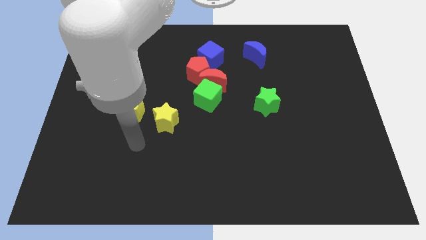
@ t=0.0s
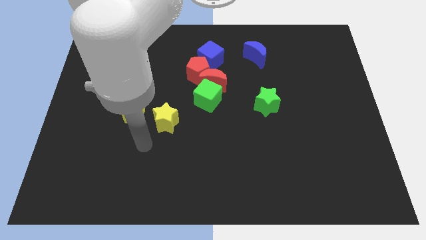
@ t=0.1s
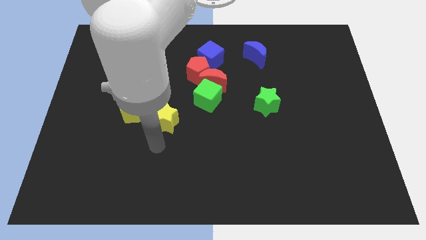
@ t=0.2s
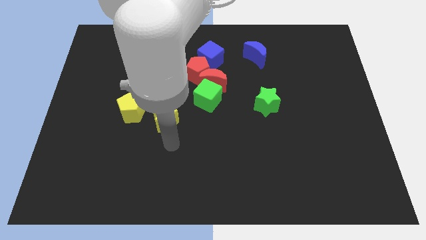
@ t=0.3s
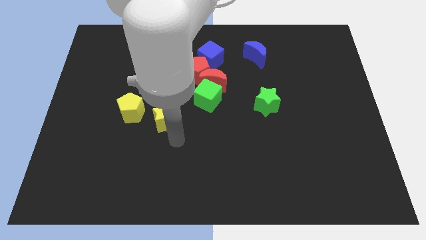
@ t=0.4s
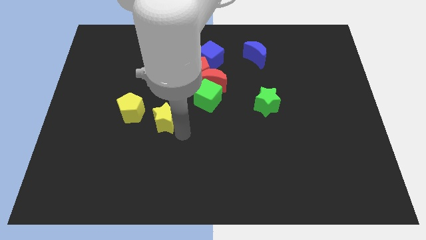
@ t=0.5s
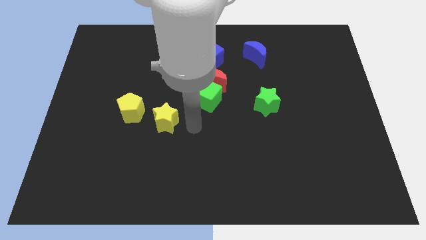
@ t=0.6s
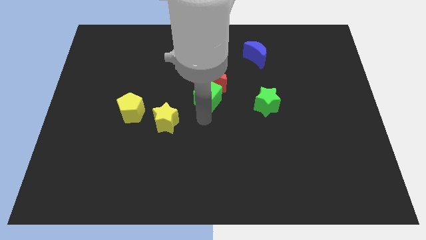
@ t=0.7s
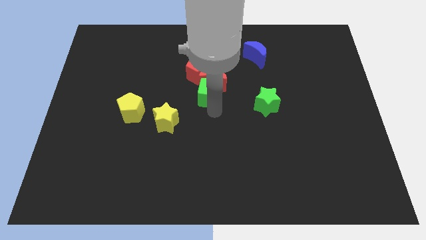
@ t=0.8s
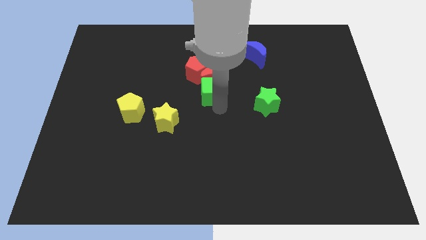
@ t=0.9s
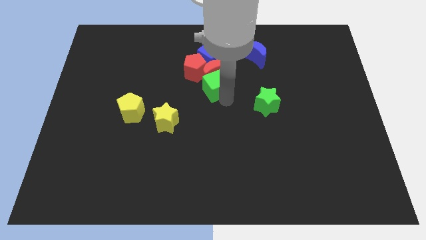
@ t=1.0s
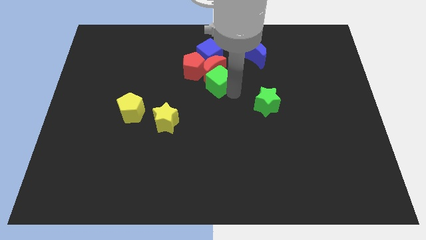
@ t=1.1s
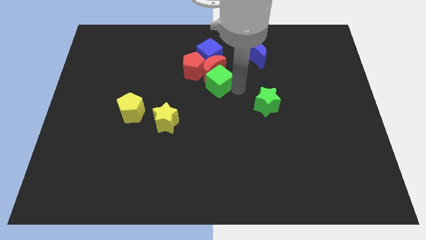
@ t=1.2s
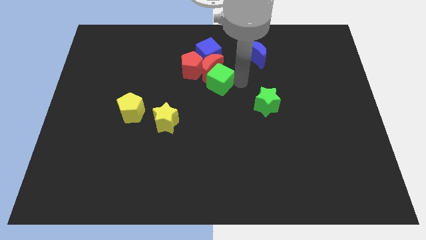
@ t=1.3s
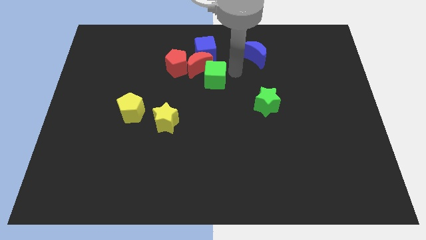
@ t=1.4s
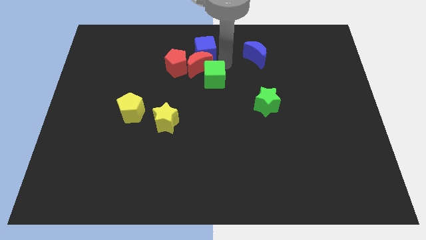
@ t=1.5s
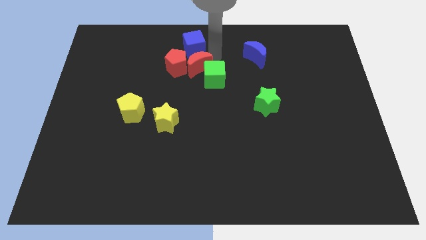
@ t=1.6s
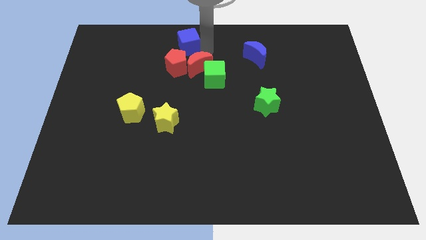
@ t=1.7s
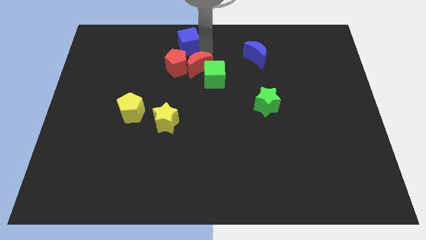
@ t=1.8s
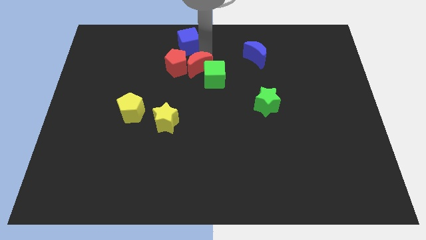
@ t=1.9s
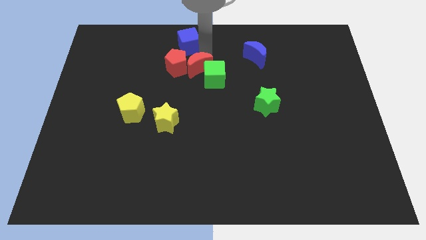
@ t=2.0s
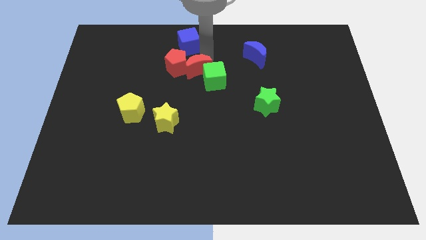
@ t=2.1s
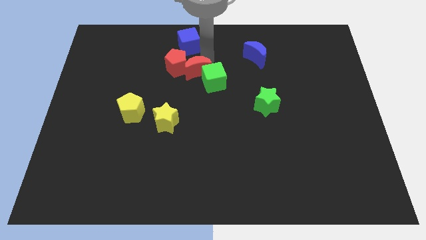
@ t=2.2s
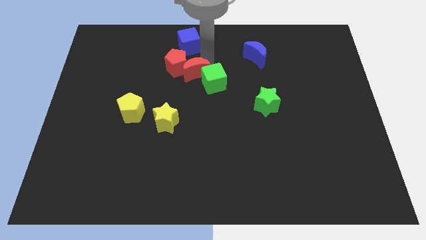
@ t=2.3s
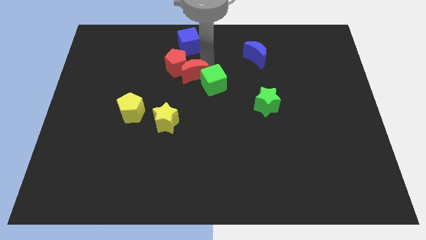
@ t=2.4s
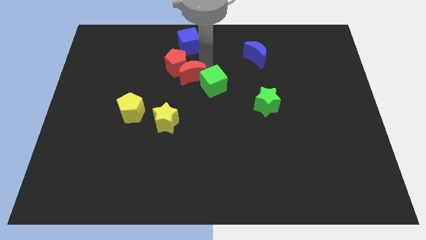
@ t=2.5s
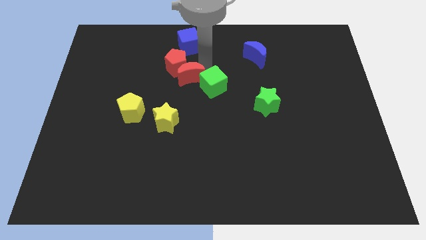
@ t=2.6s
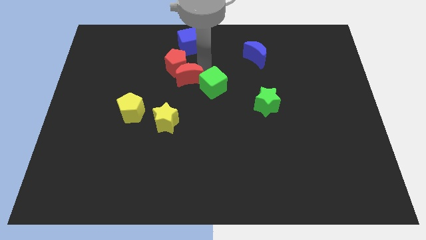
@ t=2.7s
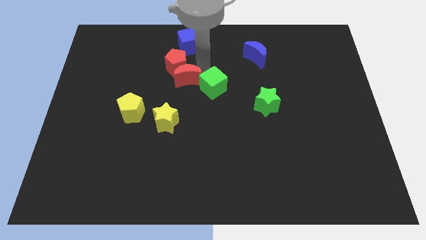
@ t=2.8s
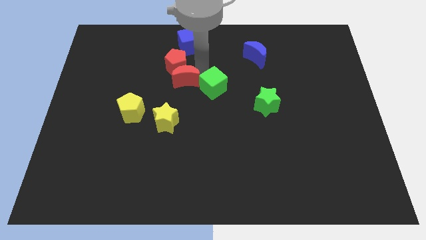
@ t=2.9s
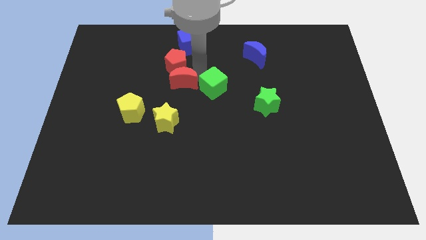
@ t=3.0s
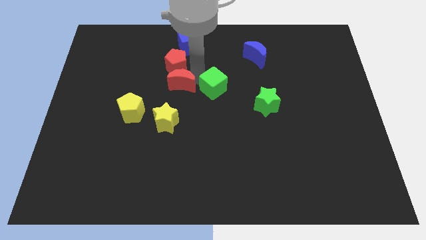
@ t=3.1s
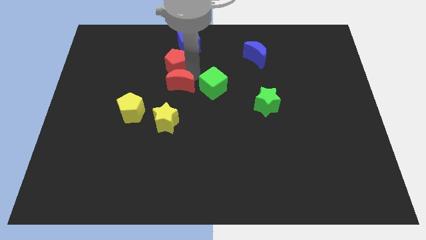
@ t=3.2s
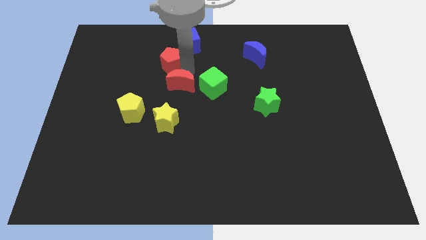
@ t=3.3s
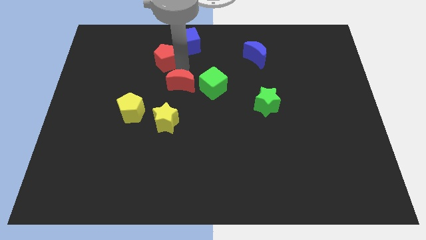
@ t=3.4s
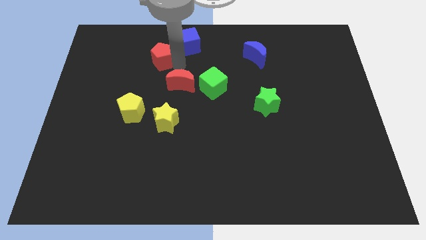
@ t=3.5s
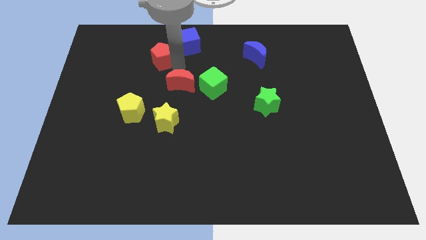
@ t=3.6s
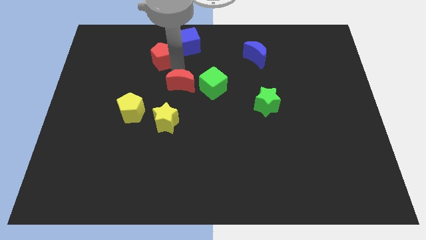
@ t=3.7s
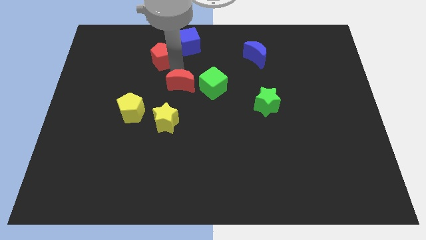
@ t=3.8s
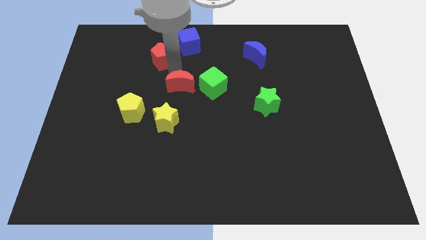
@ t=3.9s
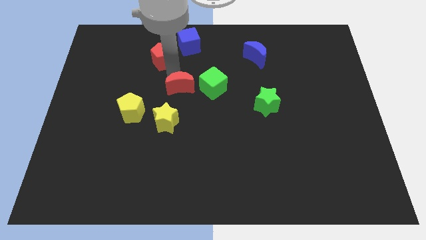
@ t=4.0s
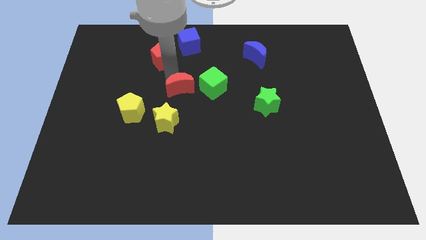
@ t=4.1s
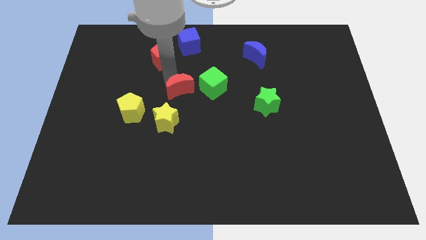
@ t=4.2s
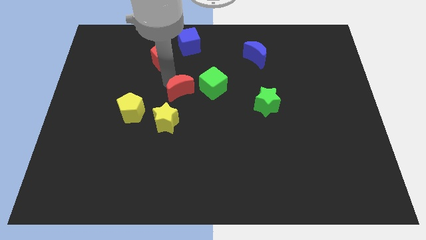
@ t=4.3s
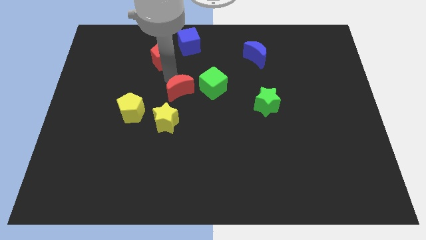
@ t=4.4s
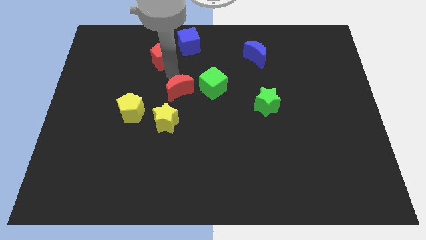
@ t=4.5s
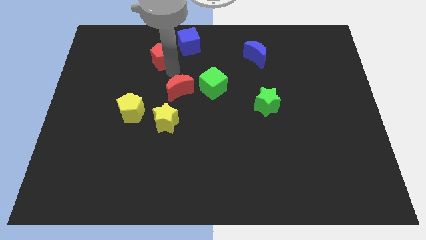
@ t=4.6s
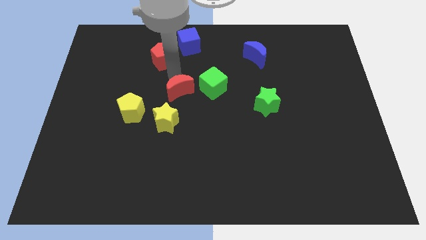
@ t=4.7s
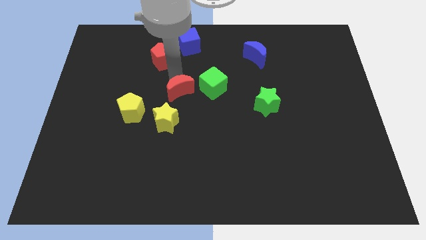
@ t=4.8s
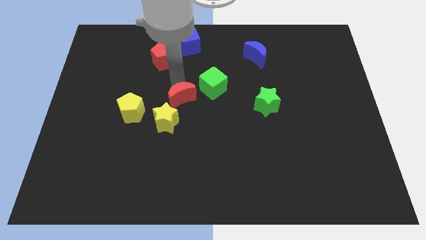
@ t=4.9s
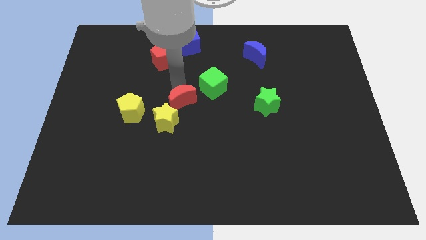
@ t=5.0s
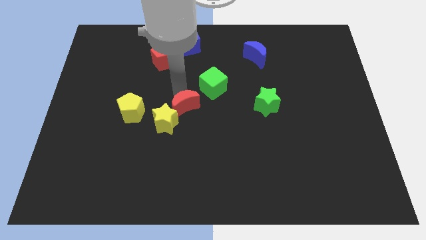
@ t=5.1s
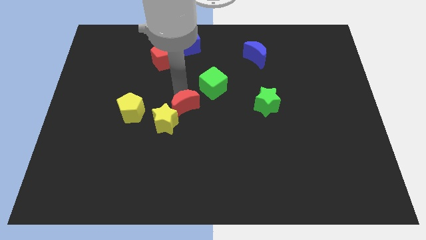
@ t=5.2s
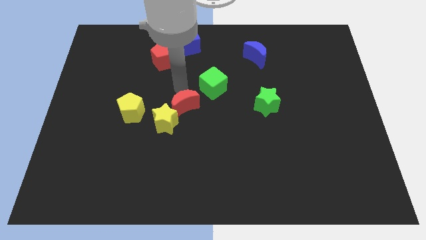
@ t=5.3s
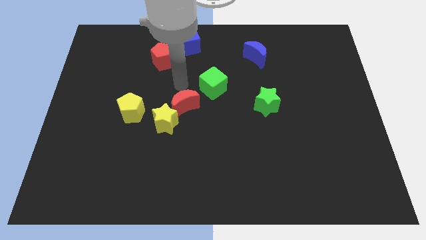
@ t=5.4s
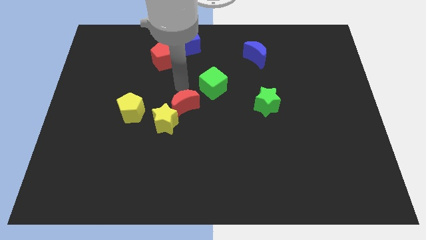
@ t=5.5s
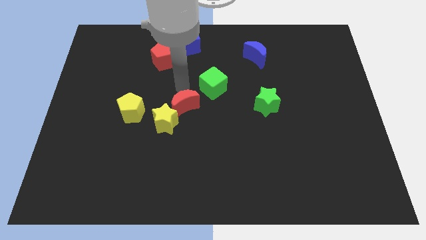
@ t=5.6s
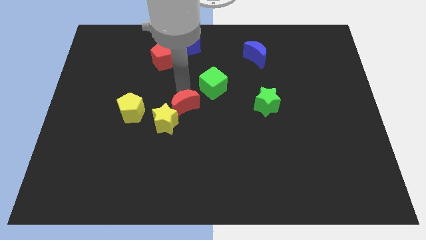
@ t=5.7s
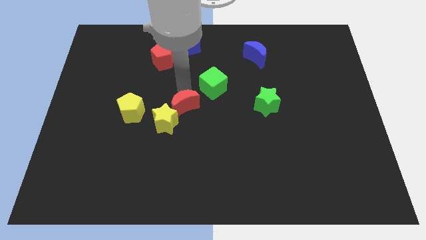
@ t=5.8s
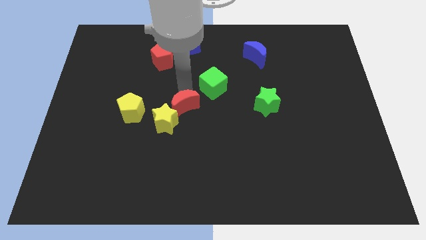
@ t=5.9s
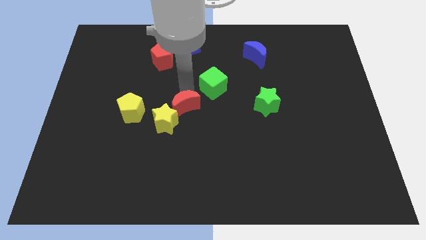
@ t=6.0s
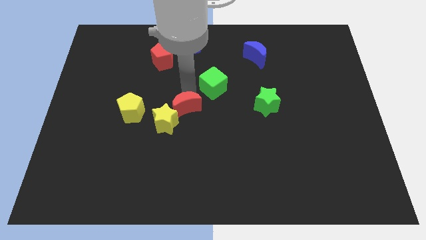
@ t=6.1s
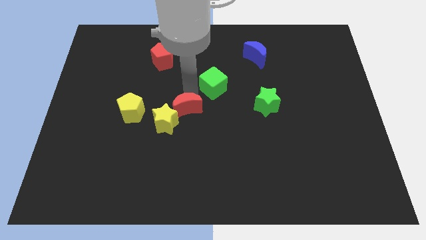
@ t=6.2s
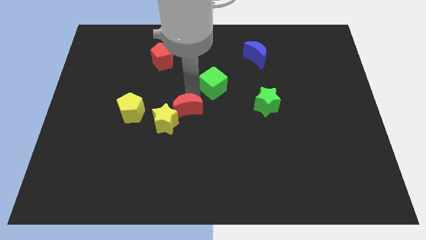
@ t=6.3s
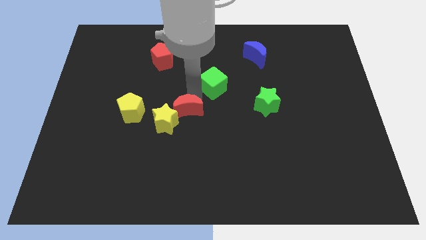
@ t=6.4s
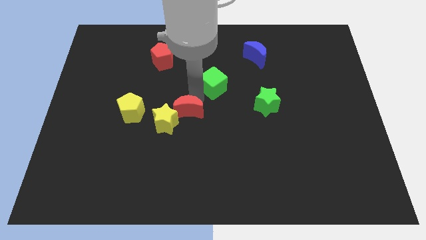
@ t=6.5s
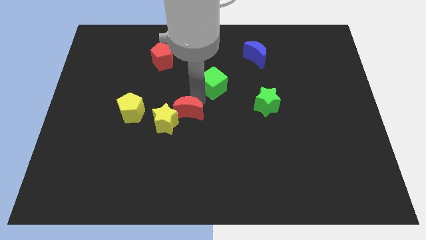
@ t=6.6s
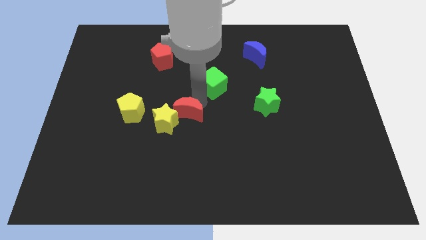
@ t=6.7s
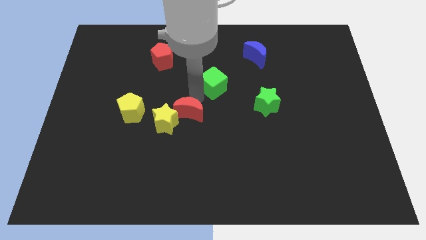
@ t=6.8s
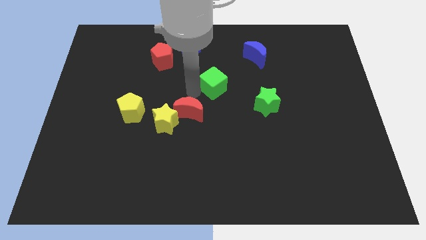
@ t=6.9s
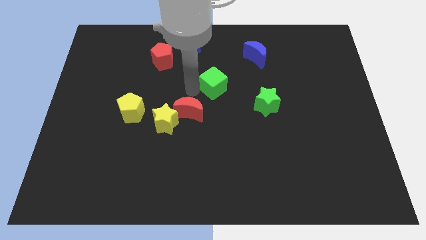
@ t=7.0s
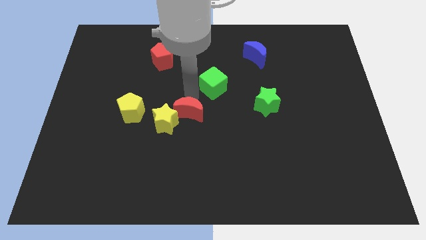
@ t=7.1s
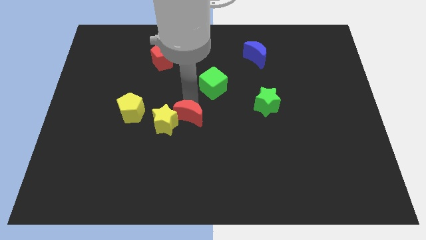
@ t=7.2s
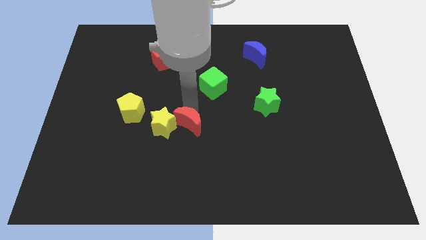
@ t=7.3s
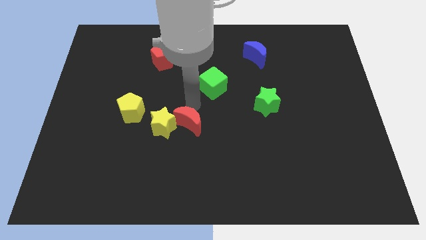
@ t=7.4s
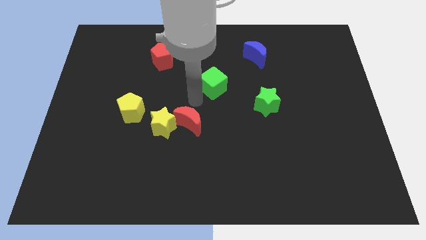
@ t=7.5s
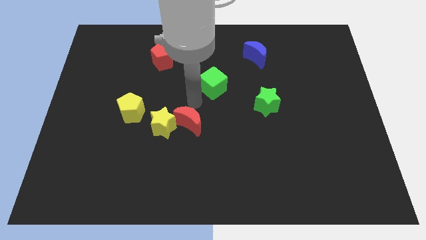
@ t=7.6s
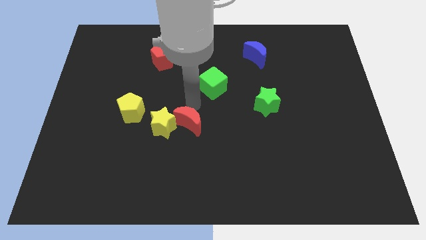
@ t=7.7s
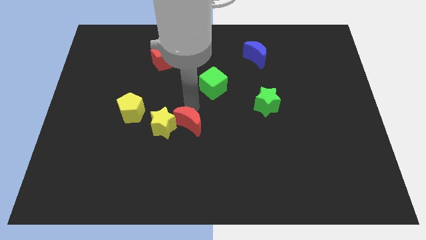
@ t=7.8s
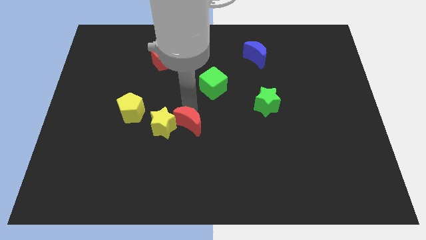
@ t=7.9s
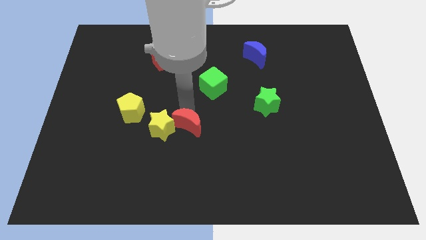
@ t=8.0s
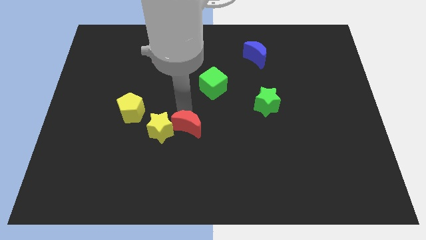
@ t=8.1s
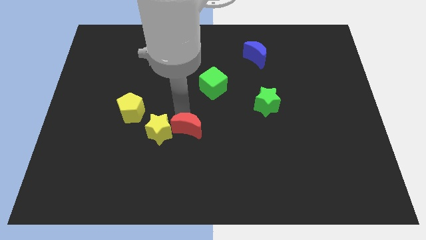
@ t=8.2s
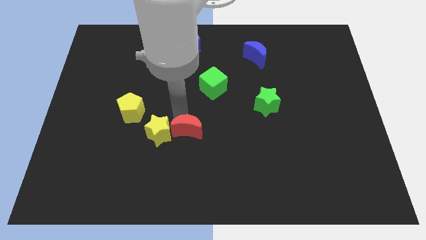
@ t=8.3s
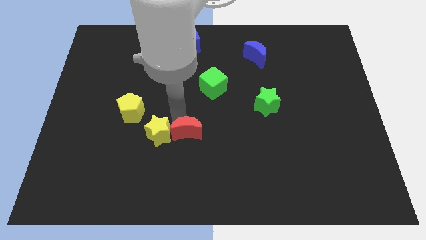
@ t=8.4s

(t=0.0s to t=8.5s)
push the red moon to the bottom right of the yellow star
